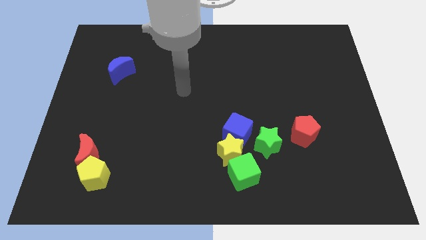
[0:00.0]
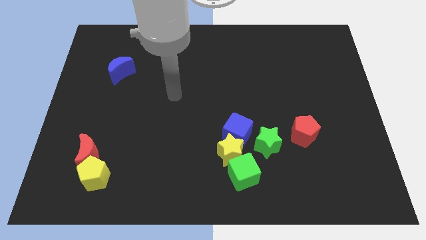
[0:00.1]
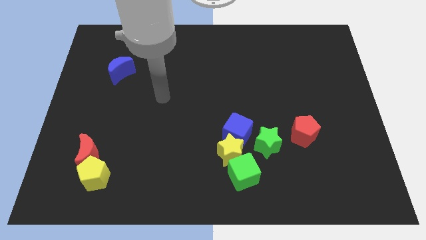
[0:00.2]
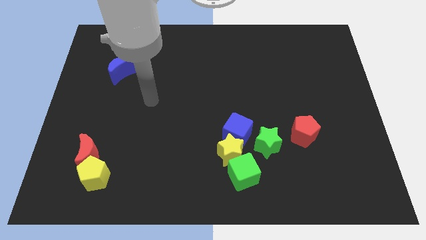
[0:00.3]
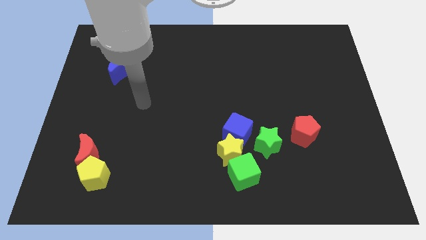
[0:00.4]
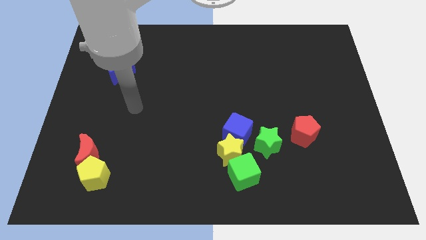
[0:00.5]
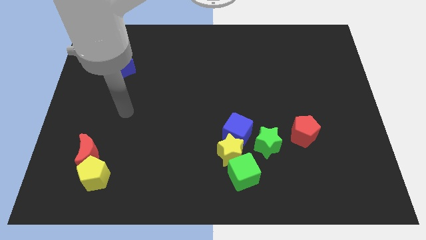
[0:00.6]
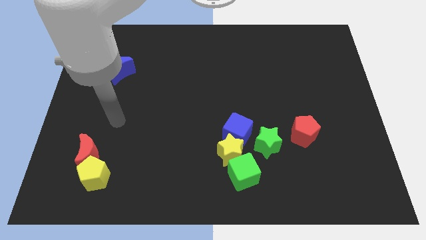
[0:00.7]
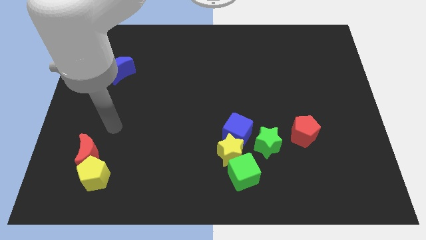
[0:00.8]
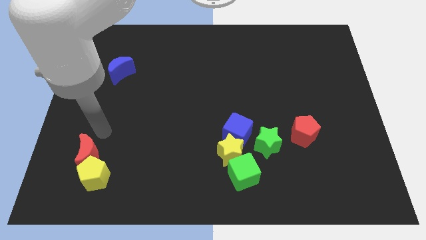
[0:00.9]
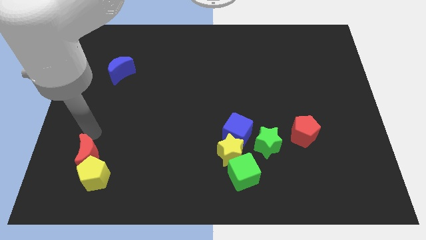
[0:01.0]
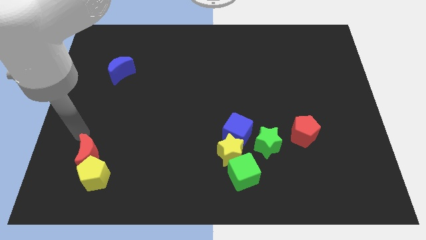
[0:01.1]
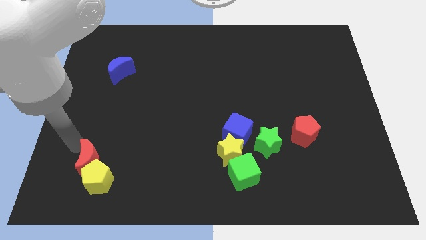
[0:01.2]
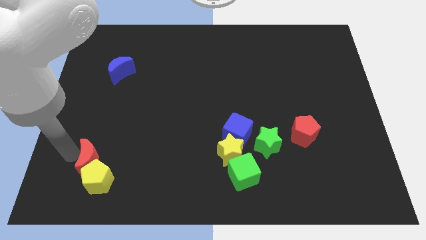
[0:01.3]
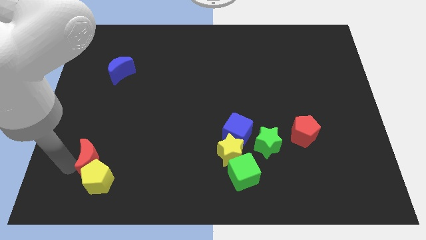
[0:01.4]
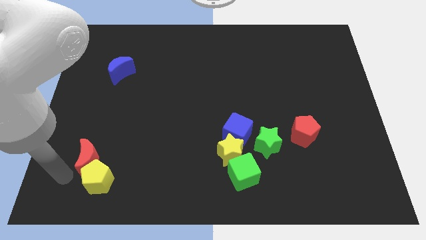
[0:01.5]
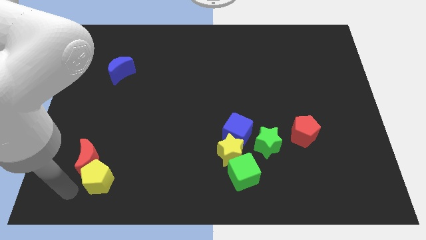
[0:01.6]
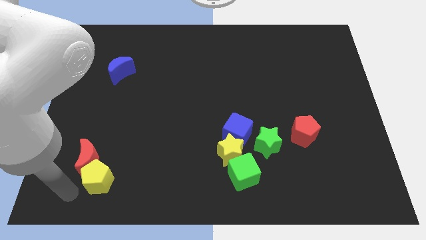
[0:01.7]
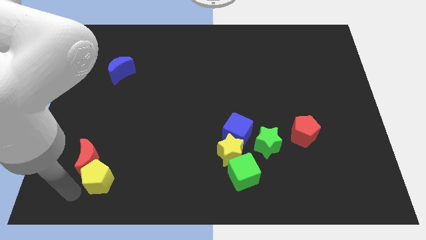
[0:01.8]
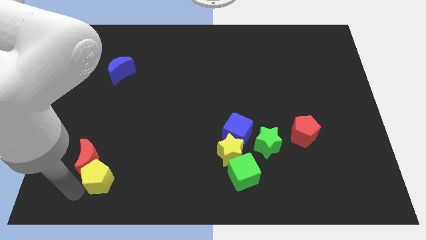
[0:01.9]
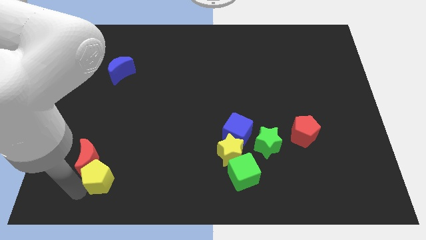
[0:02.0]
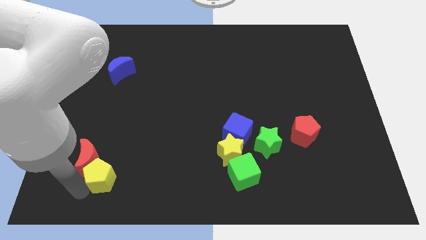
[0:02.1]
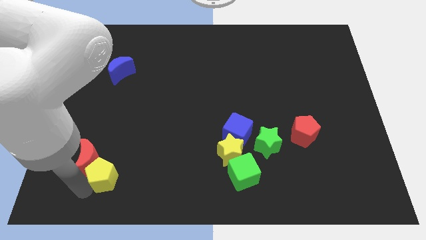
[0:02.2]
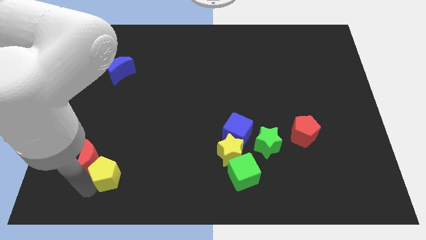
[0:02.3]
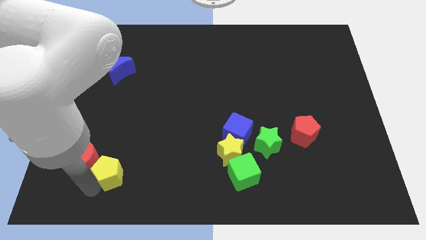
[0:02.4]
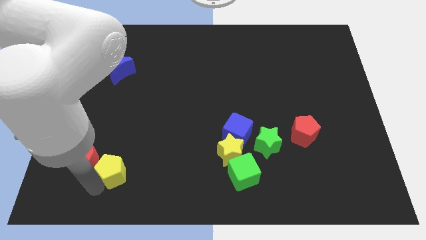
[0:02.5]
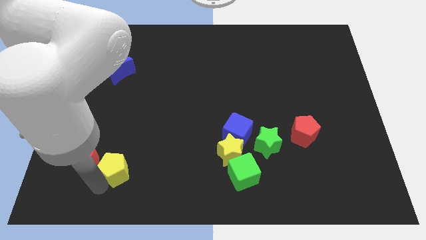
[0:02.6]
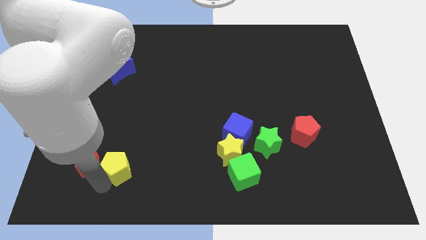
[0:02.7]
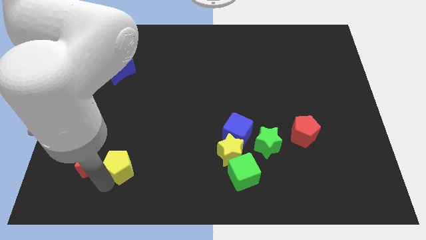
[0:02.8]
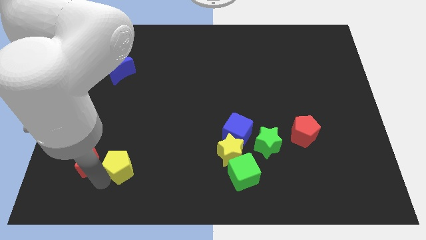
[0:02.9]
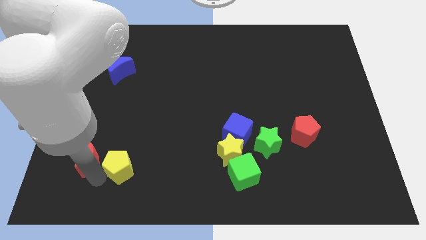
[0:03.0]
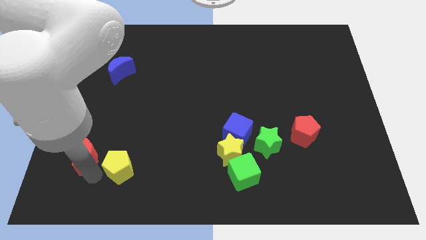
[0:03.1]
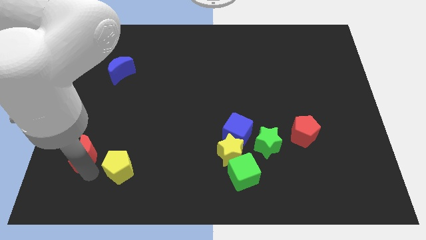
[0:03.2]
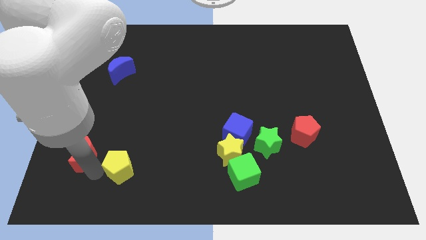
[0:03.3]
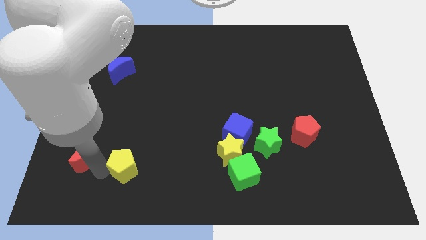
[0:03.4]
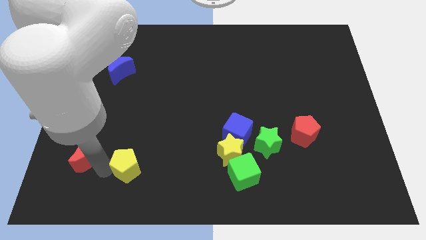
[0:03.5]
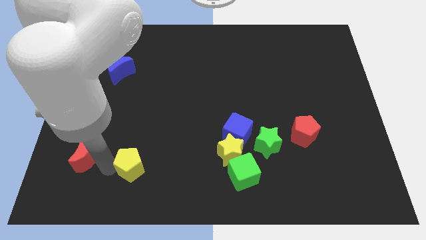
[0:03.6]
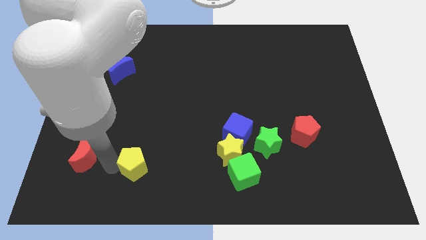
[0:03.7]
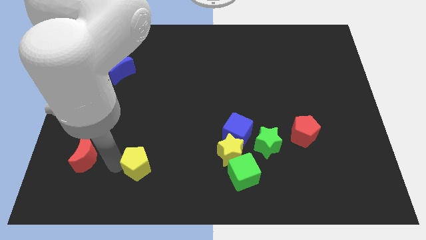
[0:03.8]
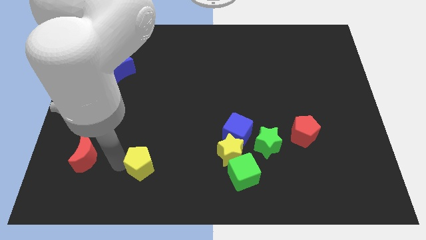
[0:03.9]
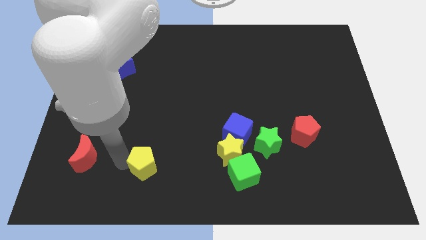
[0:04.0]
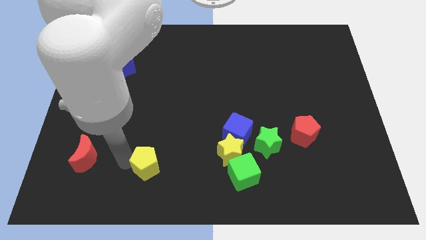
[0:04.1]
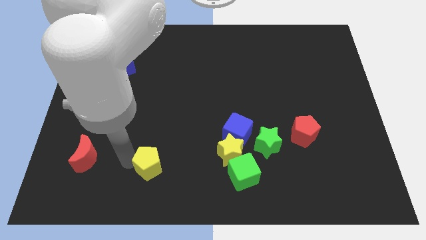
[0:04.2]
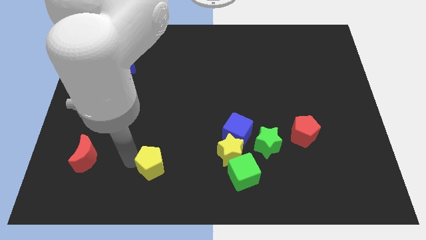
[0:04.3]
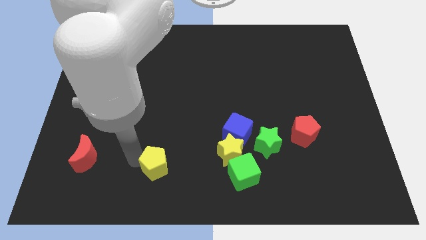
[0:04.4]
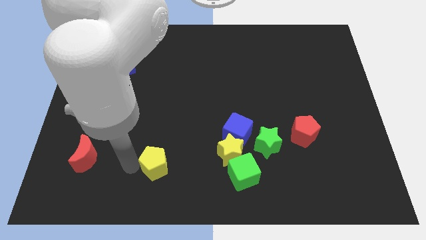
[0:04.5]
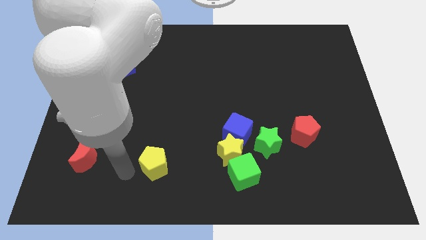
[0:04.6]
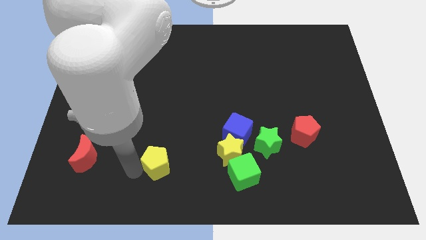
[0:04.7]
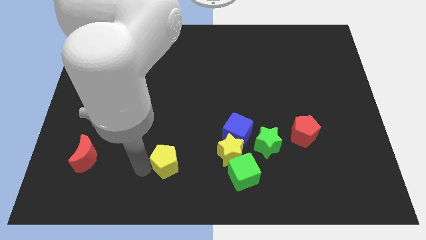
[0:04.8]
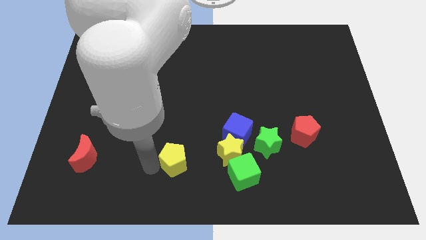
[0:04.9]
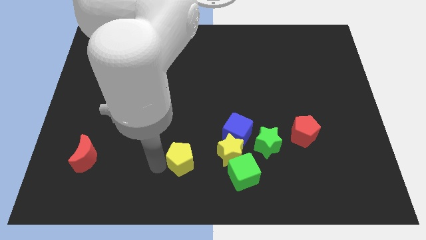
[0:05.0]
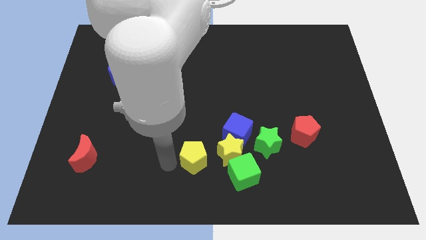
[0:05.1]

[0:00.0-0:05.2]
put the yellow pentagon to the top left of the green cube

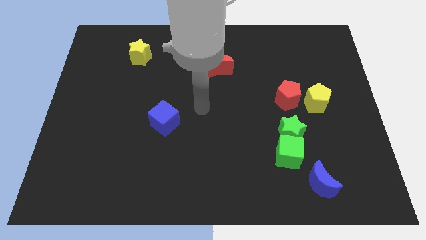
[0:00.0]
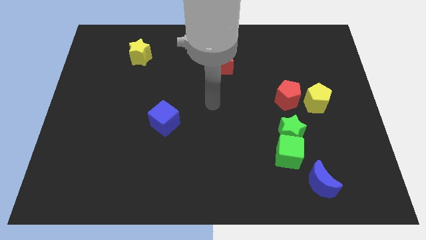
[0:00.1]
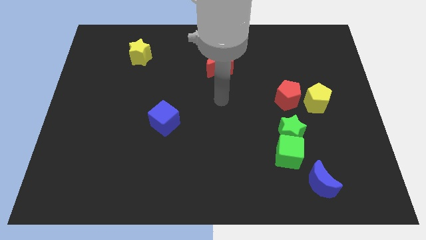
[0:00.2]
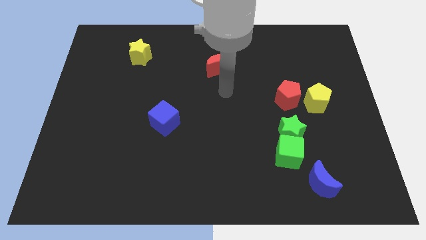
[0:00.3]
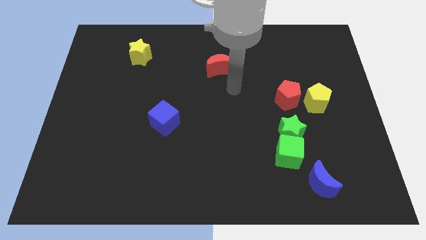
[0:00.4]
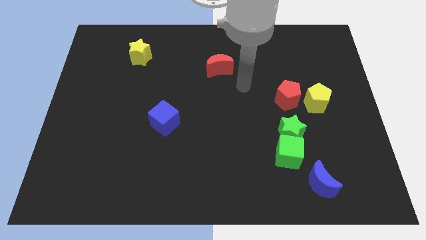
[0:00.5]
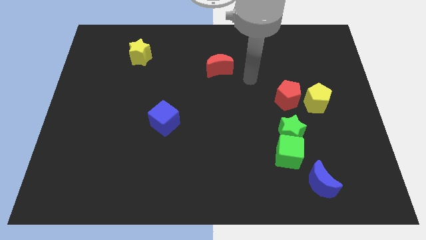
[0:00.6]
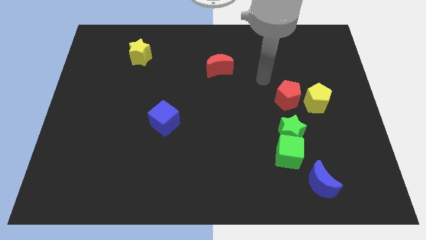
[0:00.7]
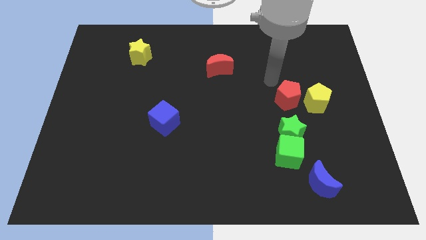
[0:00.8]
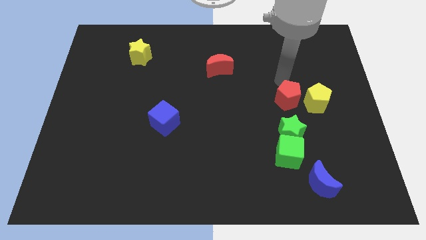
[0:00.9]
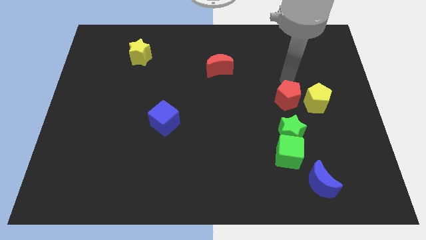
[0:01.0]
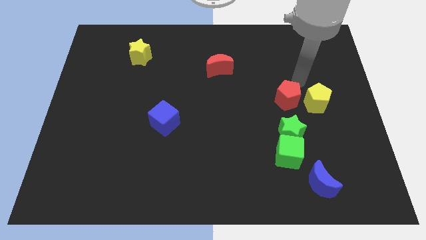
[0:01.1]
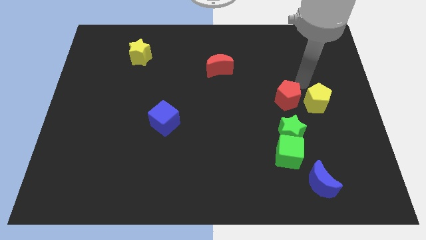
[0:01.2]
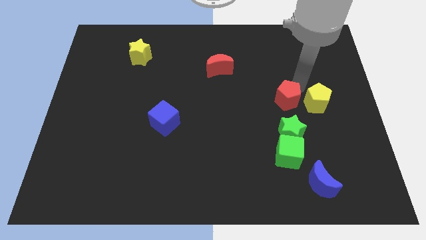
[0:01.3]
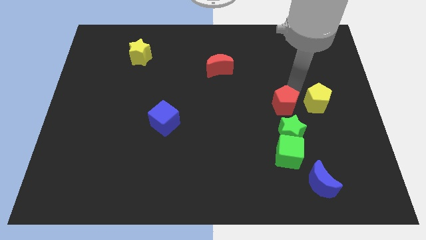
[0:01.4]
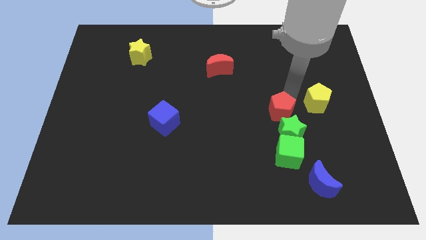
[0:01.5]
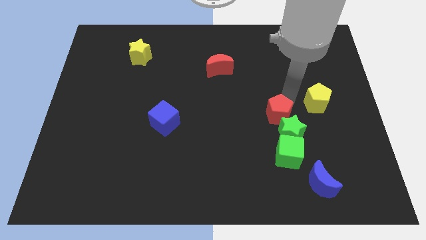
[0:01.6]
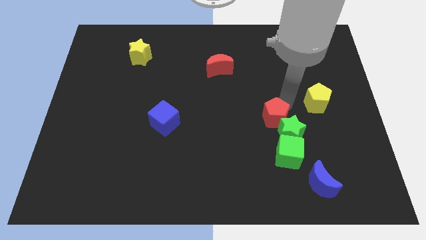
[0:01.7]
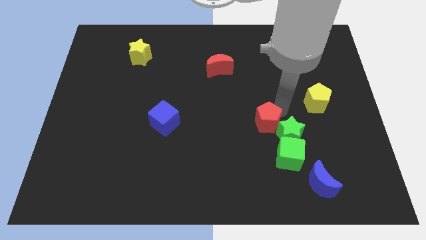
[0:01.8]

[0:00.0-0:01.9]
slide the red pentagon to the left side of the green star

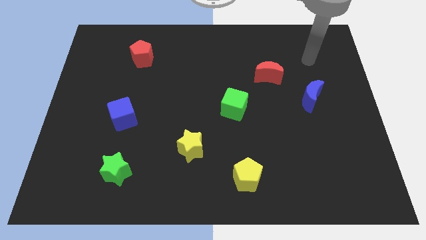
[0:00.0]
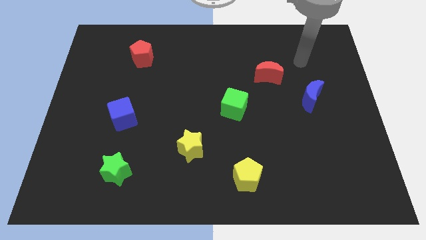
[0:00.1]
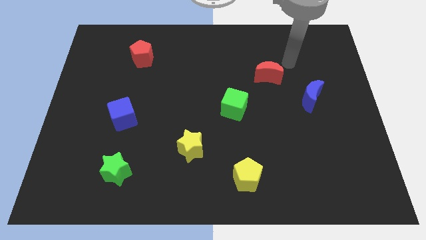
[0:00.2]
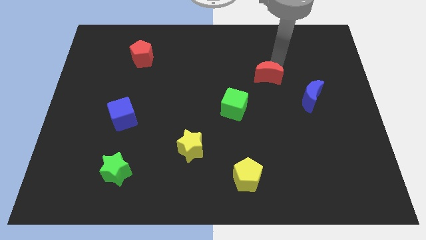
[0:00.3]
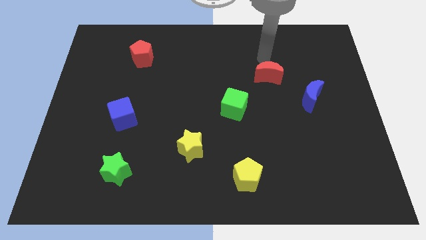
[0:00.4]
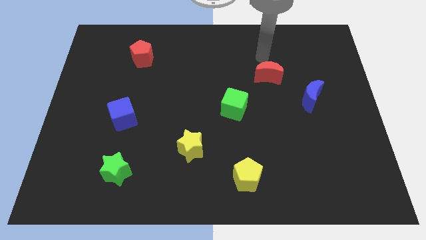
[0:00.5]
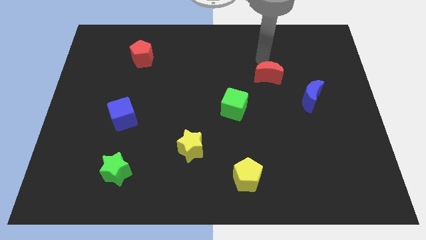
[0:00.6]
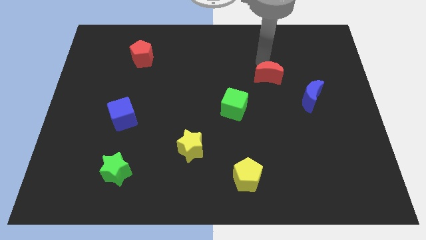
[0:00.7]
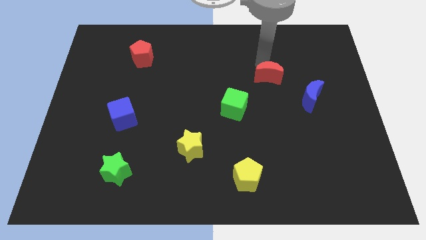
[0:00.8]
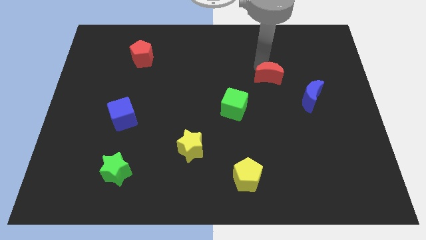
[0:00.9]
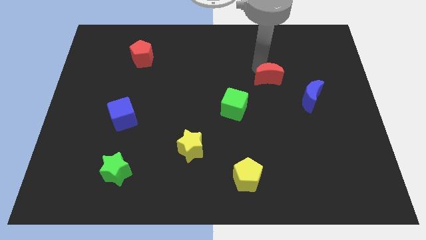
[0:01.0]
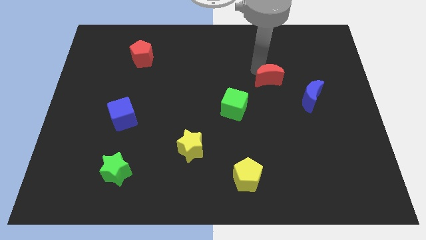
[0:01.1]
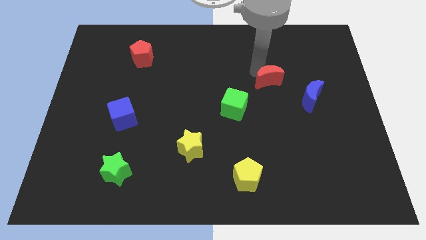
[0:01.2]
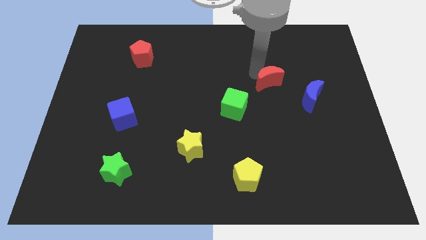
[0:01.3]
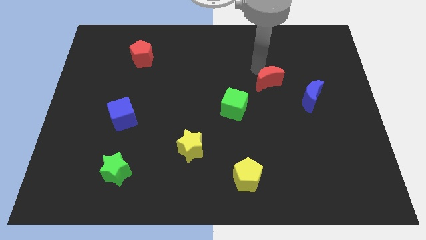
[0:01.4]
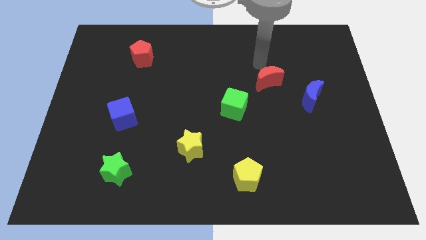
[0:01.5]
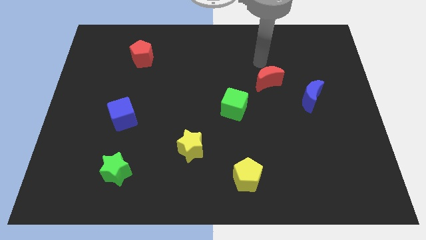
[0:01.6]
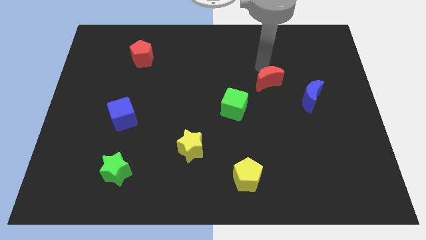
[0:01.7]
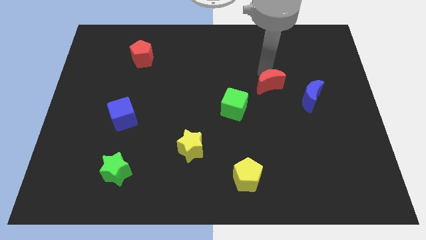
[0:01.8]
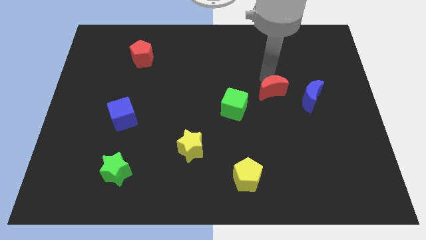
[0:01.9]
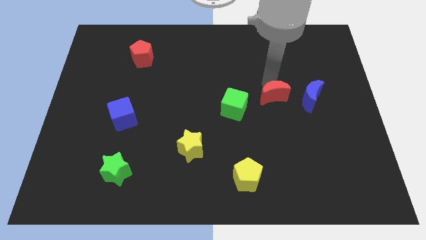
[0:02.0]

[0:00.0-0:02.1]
push the red moon right of the green cube
